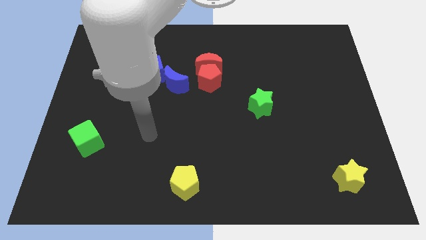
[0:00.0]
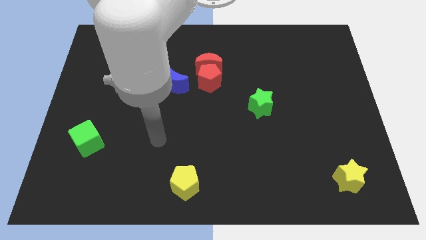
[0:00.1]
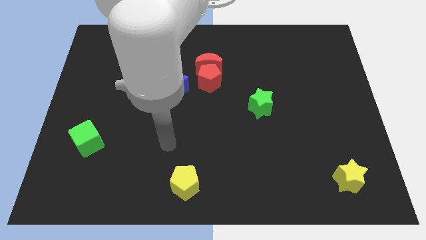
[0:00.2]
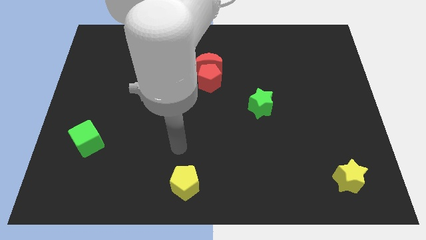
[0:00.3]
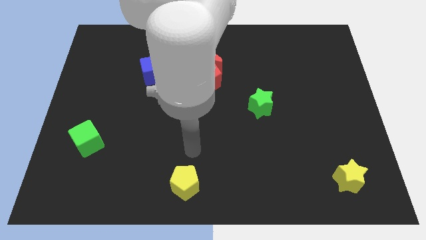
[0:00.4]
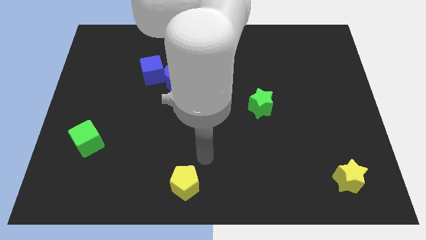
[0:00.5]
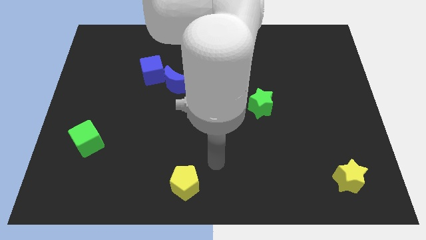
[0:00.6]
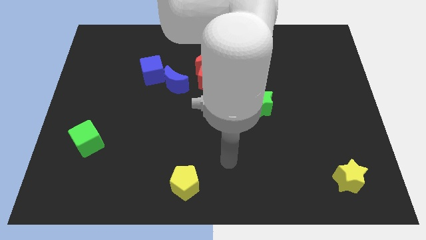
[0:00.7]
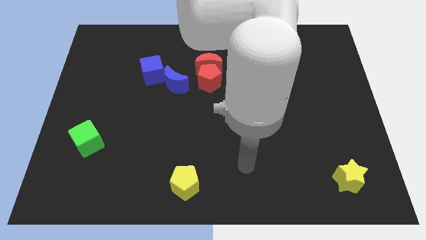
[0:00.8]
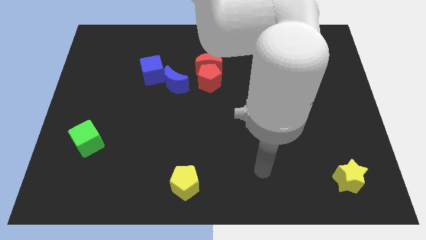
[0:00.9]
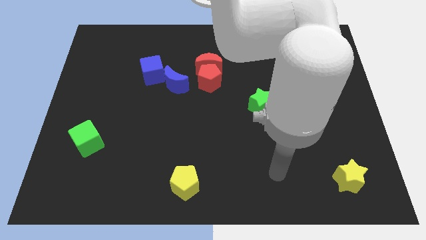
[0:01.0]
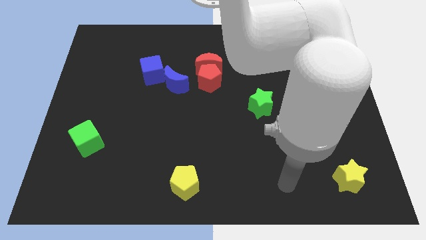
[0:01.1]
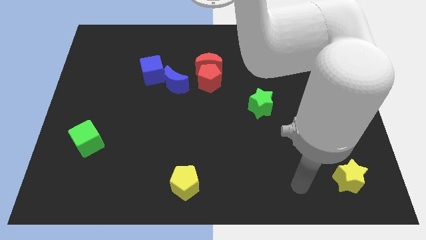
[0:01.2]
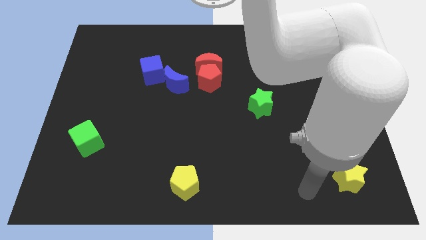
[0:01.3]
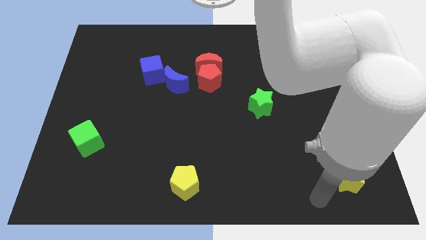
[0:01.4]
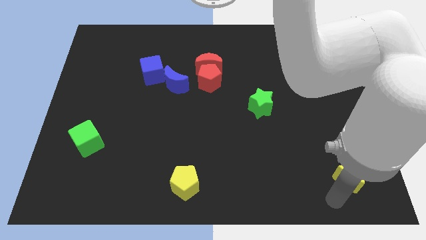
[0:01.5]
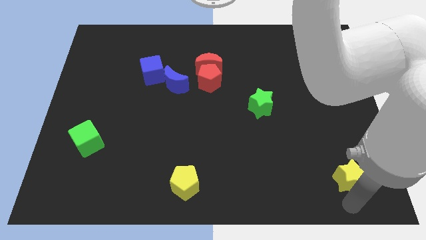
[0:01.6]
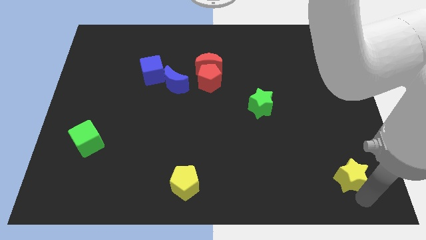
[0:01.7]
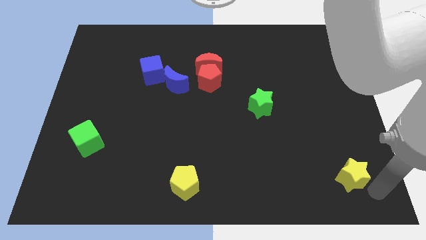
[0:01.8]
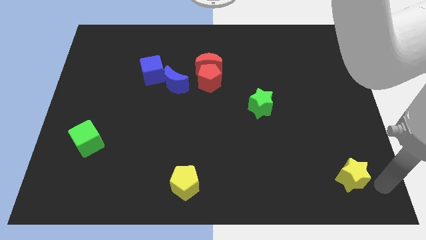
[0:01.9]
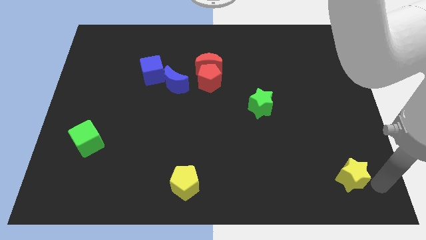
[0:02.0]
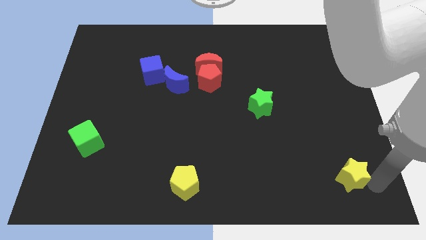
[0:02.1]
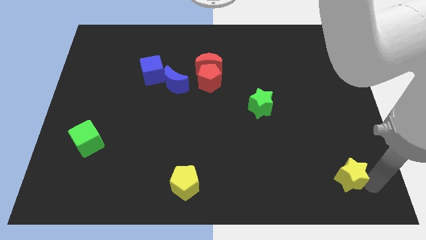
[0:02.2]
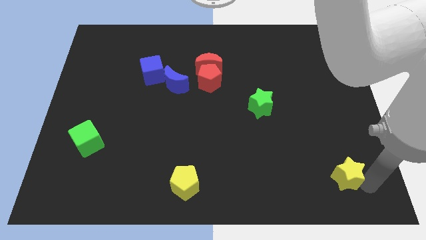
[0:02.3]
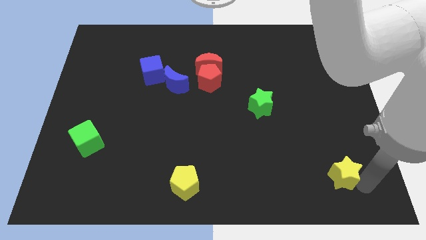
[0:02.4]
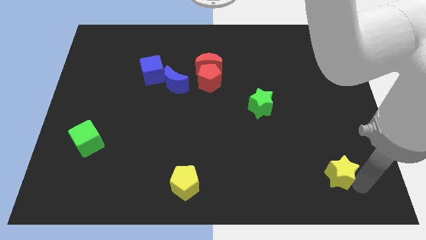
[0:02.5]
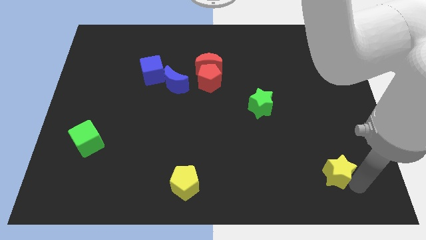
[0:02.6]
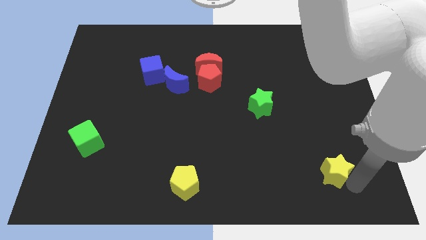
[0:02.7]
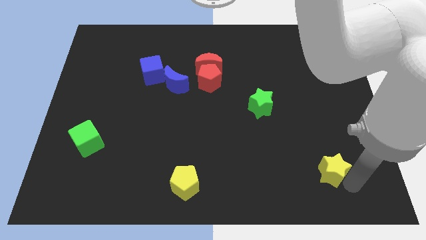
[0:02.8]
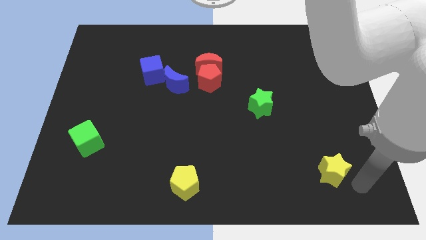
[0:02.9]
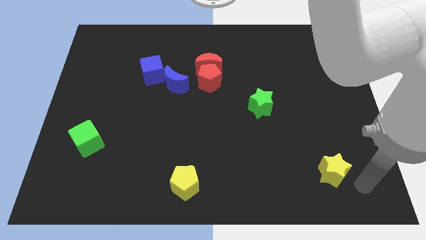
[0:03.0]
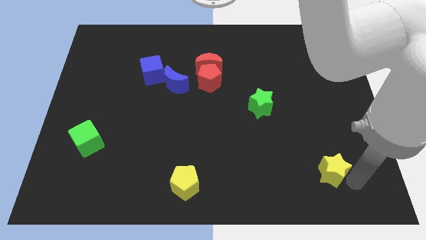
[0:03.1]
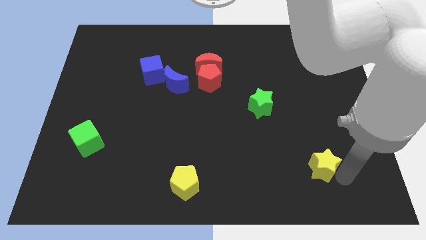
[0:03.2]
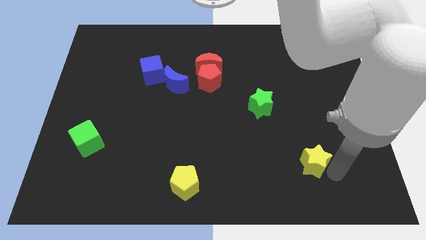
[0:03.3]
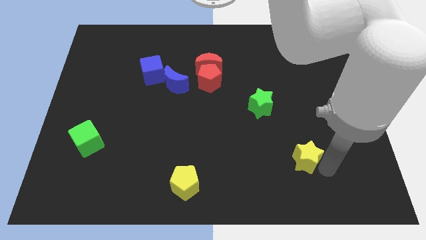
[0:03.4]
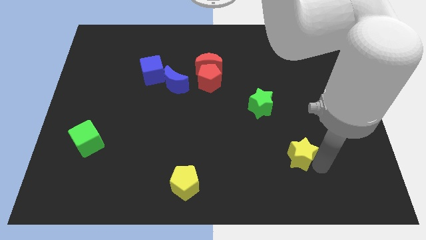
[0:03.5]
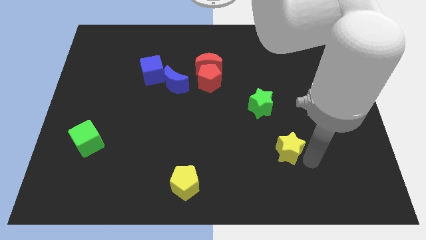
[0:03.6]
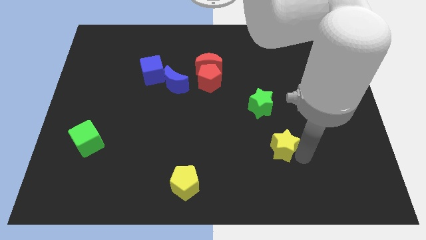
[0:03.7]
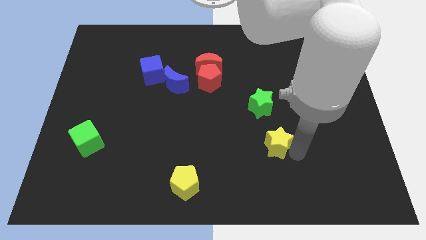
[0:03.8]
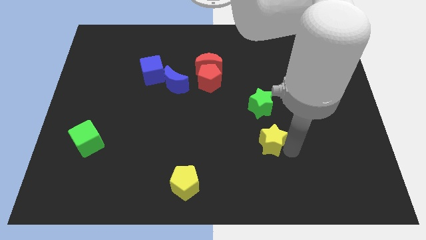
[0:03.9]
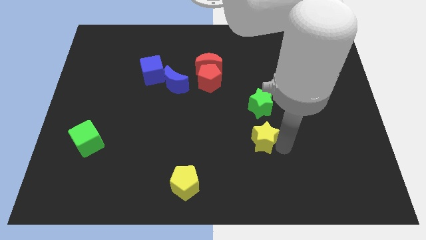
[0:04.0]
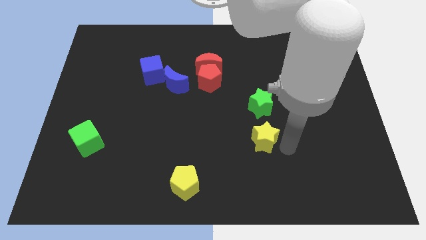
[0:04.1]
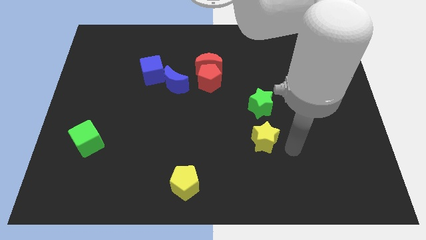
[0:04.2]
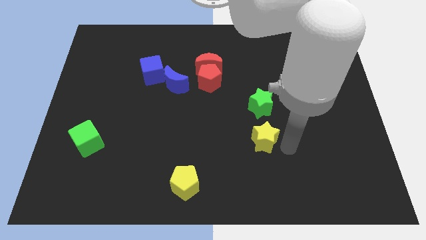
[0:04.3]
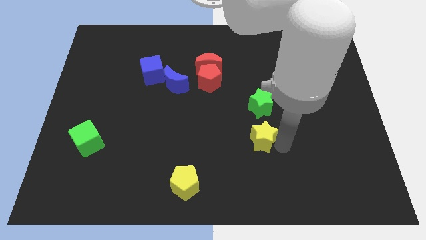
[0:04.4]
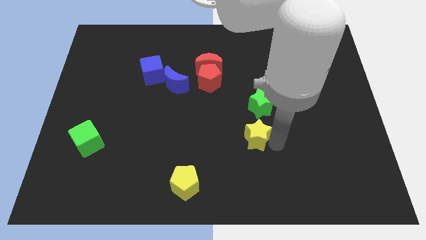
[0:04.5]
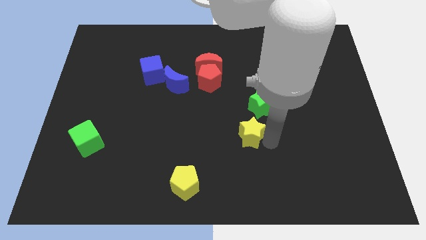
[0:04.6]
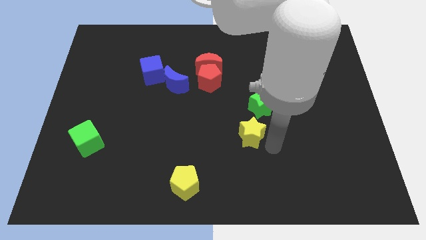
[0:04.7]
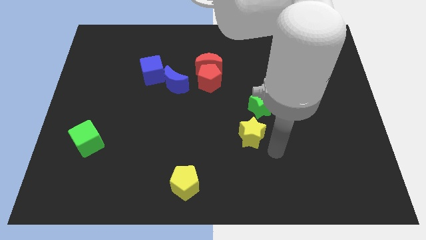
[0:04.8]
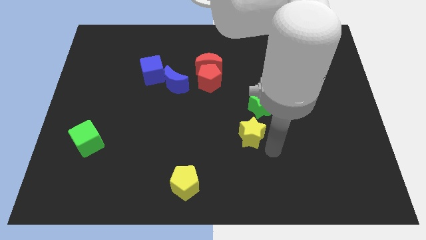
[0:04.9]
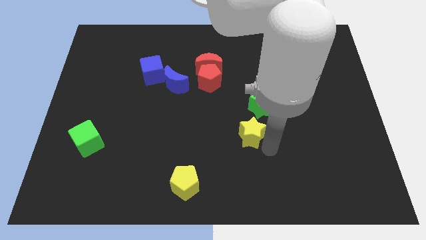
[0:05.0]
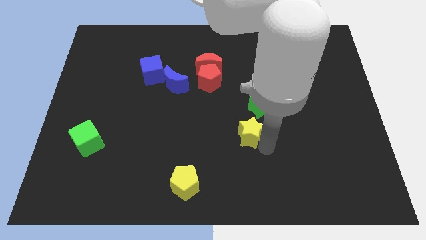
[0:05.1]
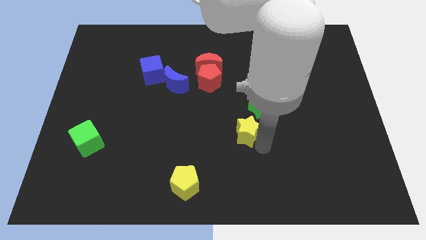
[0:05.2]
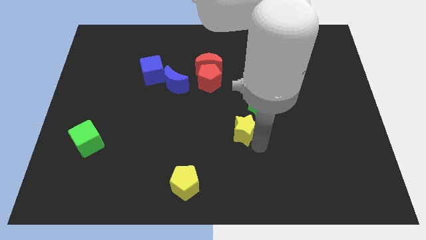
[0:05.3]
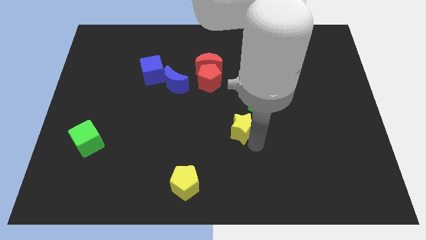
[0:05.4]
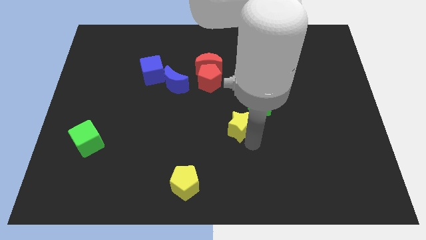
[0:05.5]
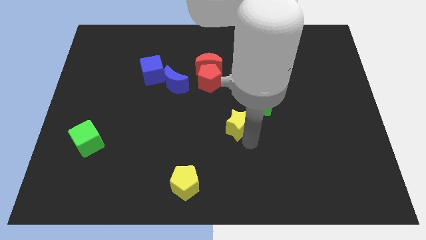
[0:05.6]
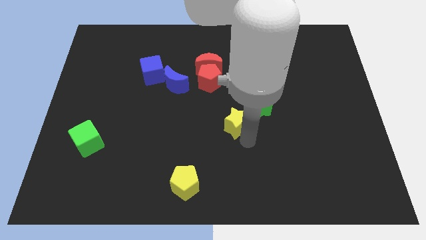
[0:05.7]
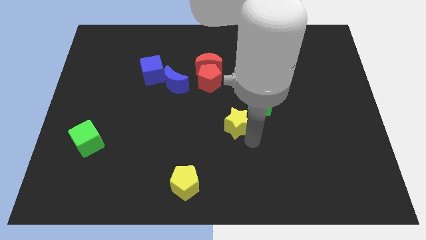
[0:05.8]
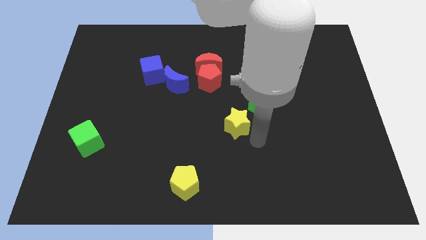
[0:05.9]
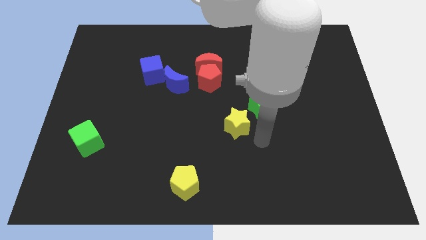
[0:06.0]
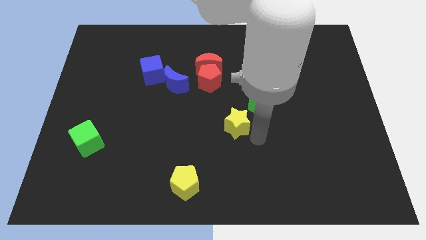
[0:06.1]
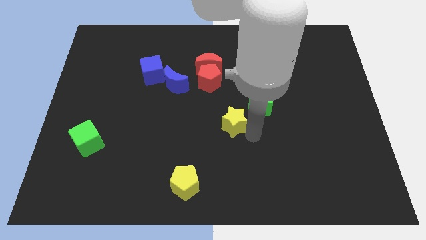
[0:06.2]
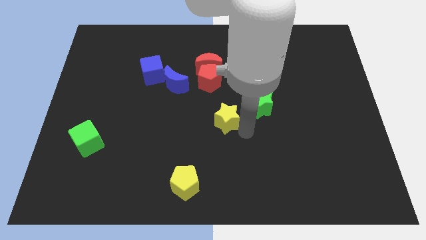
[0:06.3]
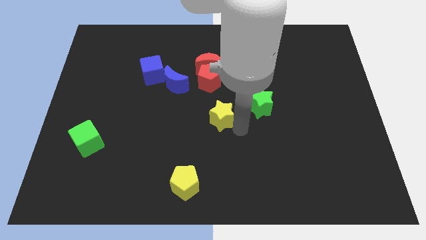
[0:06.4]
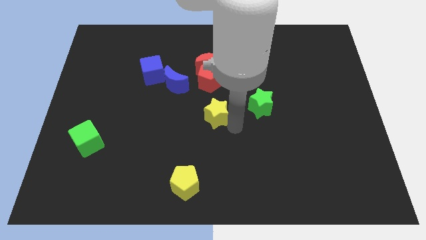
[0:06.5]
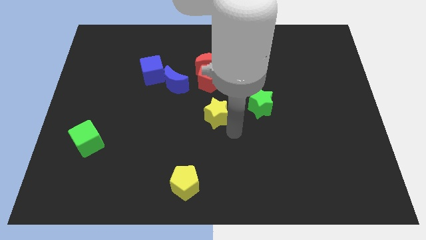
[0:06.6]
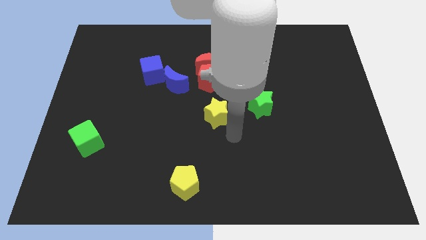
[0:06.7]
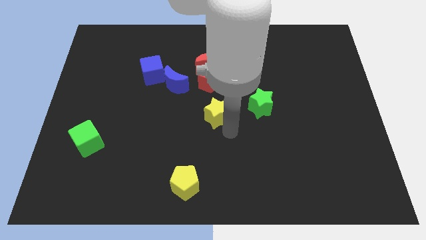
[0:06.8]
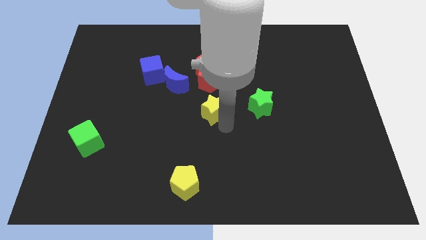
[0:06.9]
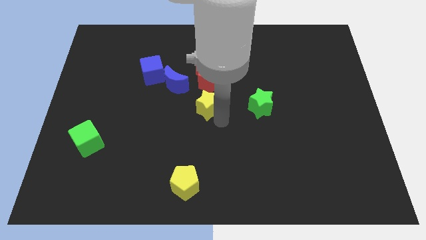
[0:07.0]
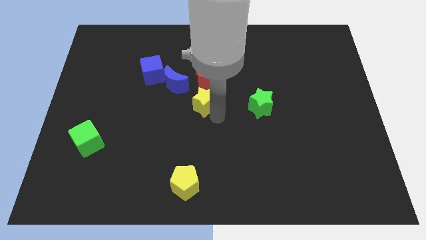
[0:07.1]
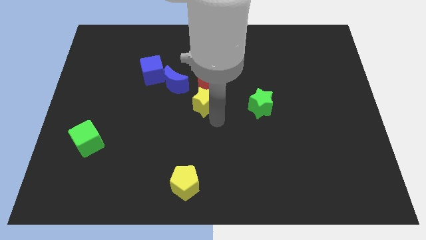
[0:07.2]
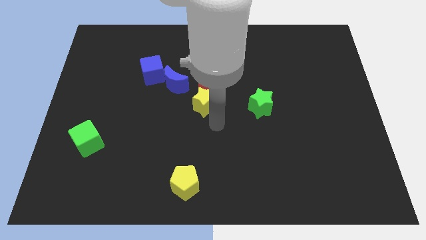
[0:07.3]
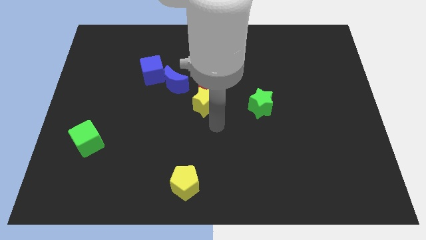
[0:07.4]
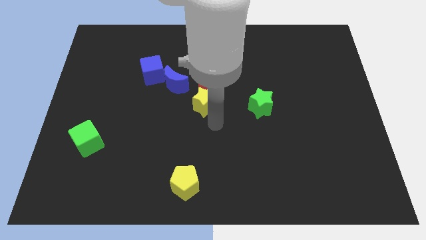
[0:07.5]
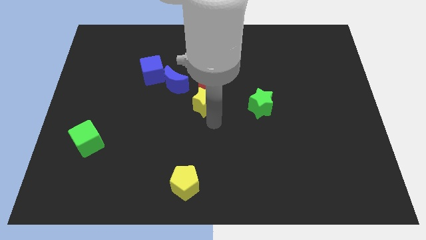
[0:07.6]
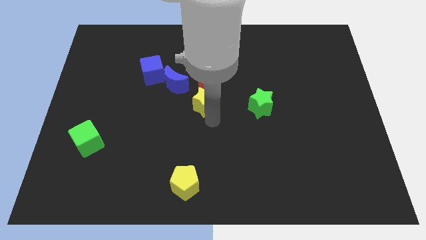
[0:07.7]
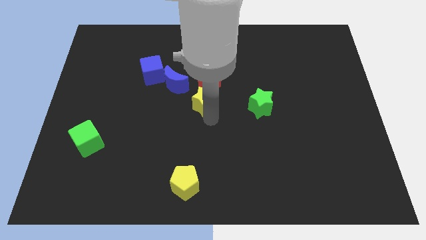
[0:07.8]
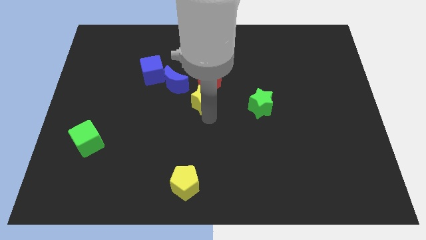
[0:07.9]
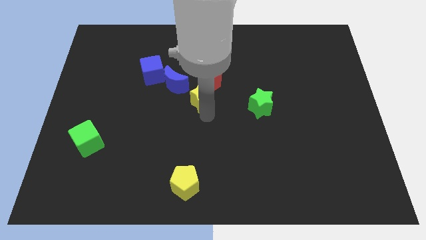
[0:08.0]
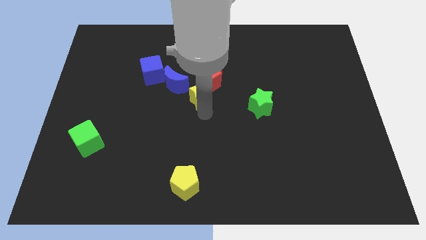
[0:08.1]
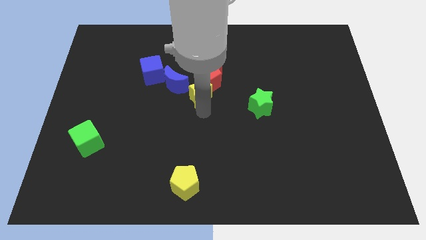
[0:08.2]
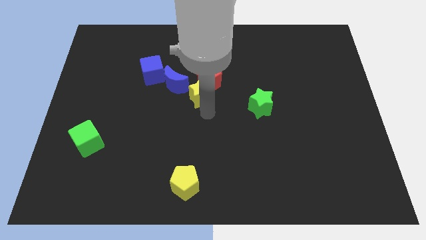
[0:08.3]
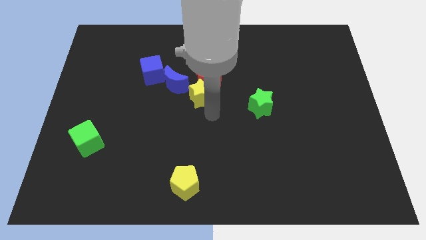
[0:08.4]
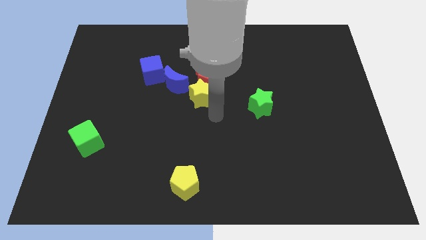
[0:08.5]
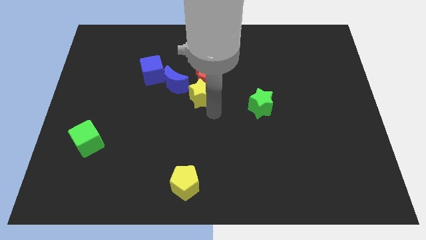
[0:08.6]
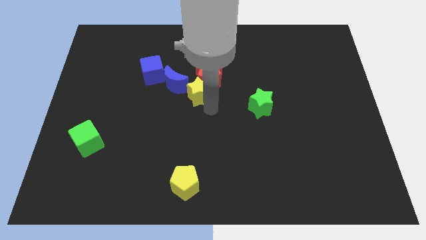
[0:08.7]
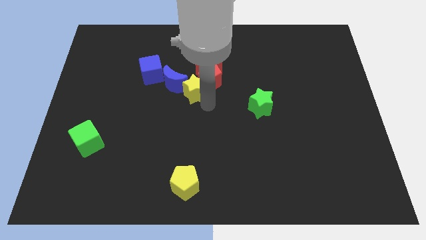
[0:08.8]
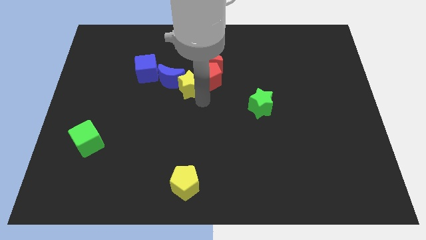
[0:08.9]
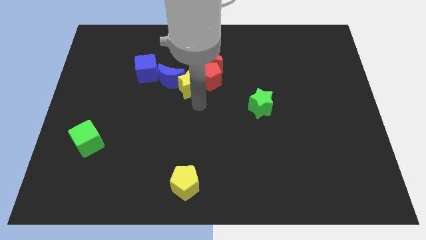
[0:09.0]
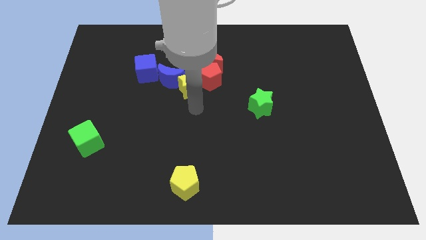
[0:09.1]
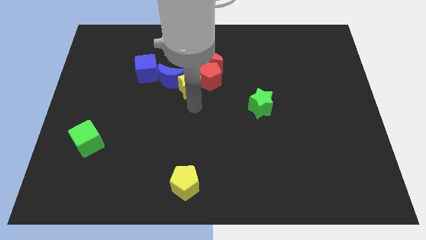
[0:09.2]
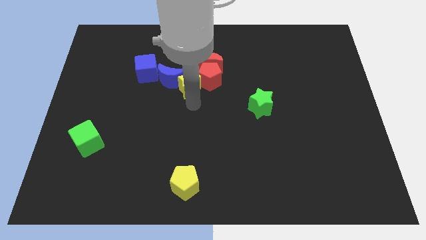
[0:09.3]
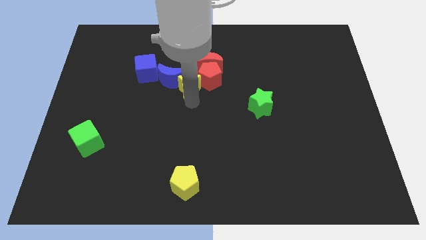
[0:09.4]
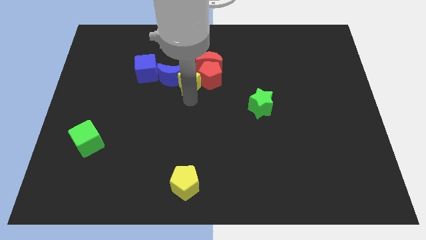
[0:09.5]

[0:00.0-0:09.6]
move the yellow star just right of the blue cube
